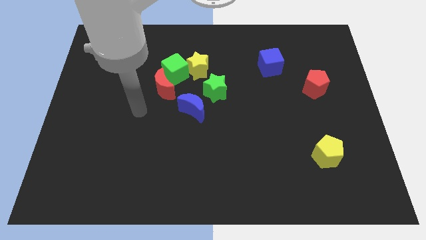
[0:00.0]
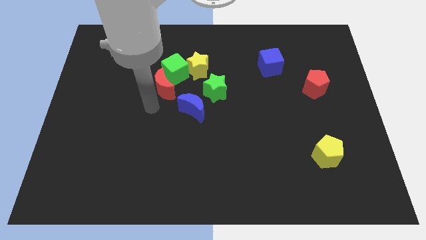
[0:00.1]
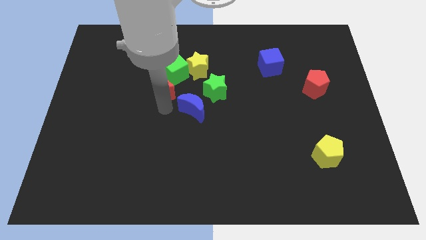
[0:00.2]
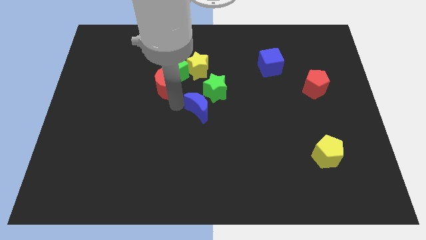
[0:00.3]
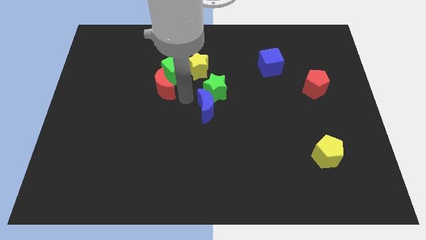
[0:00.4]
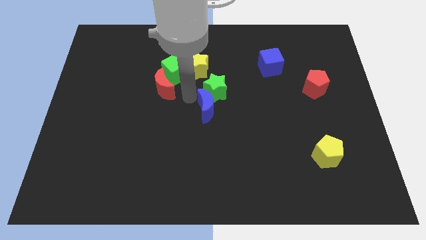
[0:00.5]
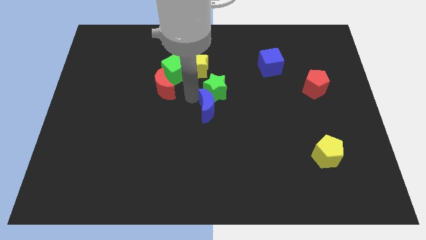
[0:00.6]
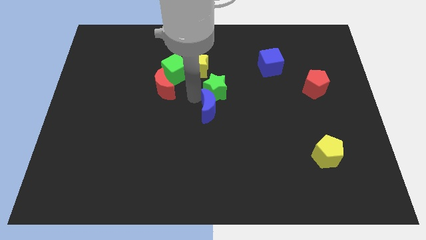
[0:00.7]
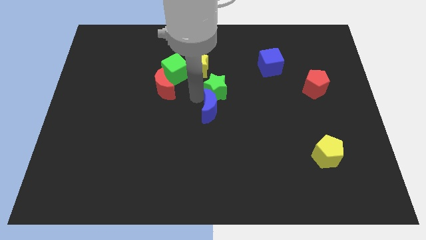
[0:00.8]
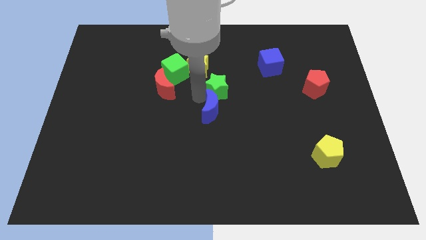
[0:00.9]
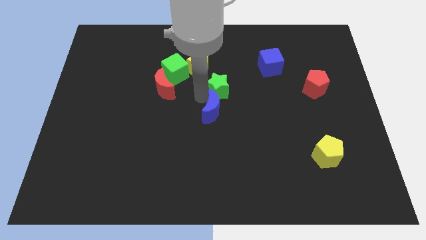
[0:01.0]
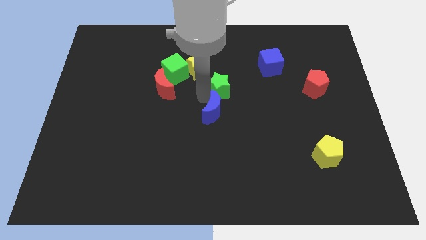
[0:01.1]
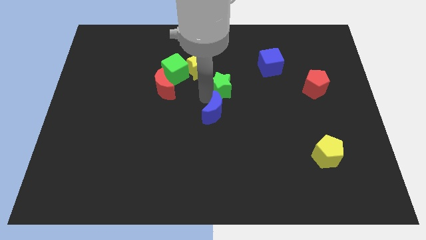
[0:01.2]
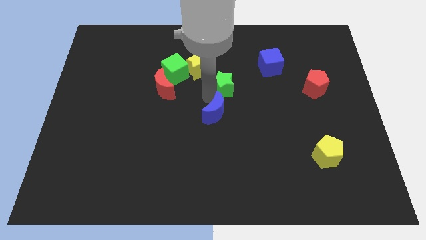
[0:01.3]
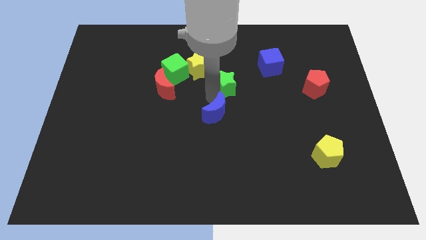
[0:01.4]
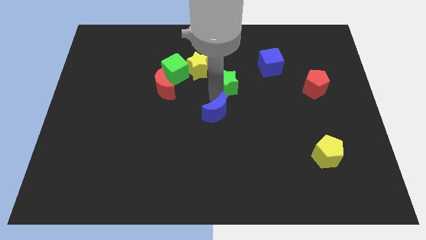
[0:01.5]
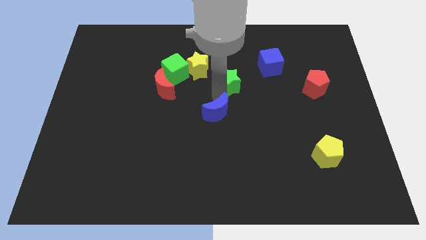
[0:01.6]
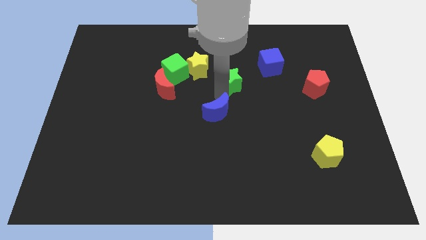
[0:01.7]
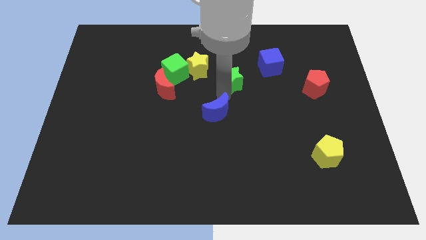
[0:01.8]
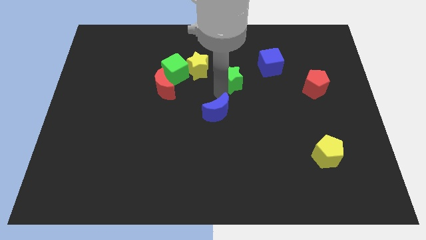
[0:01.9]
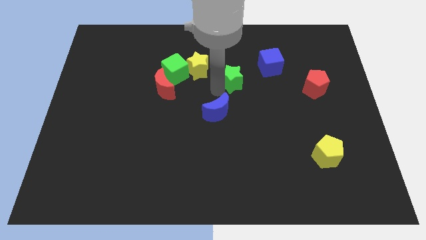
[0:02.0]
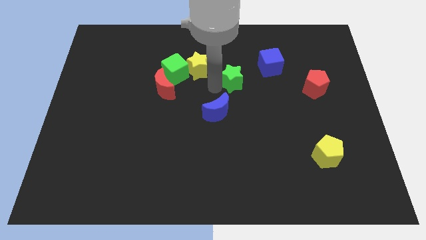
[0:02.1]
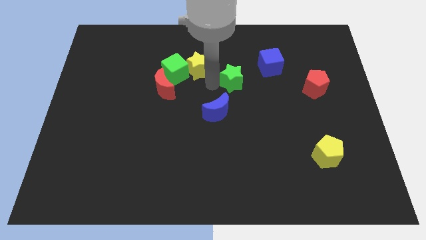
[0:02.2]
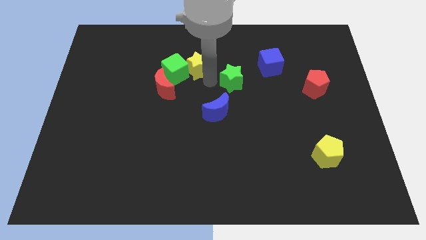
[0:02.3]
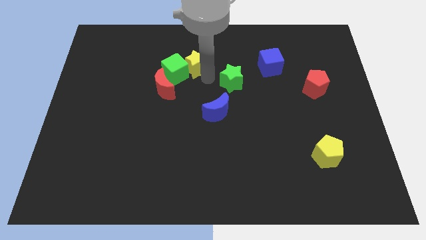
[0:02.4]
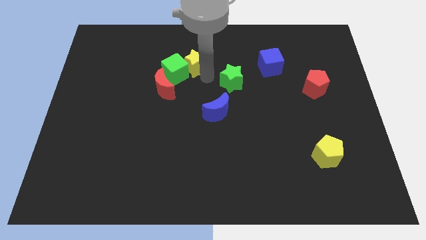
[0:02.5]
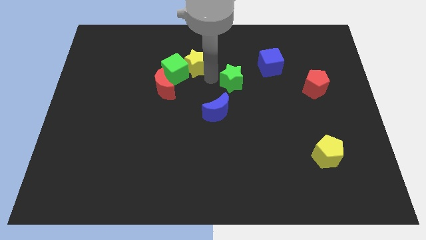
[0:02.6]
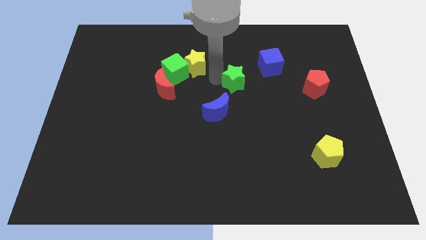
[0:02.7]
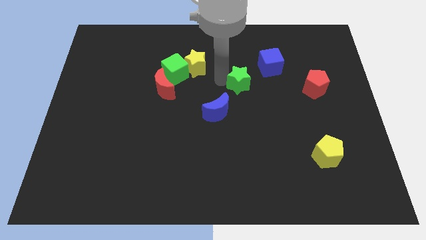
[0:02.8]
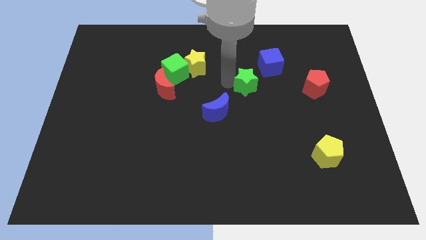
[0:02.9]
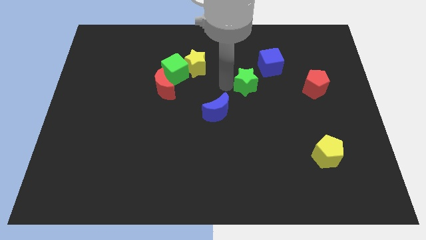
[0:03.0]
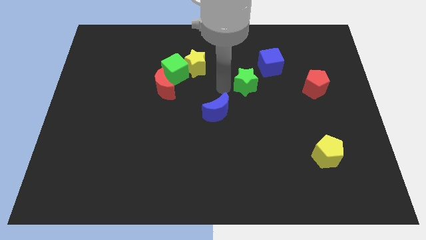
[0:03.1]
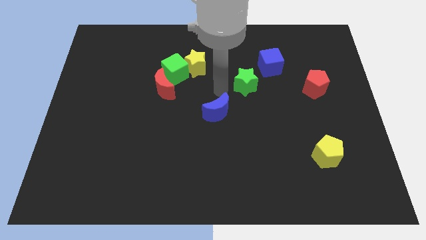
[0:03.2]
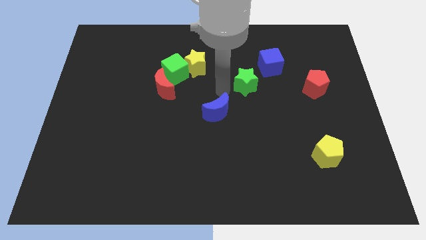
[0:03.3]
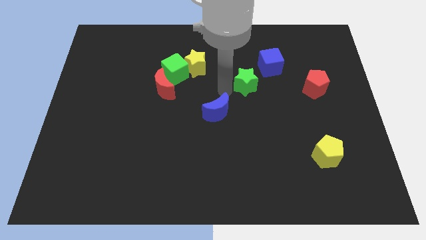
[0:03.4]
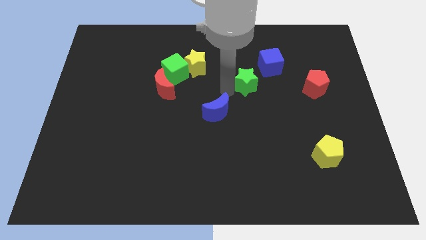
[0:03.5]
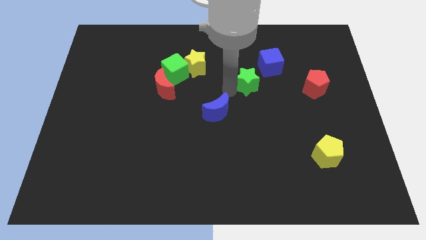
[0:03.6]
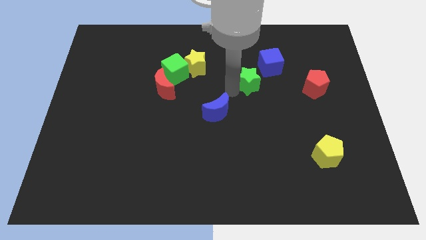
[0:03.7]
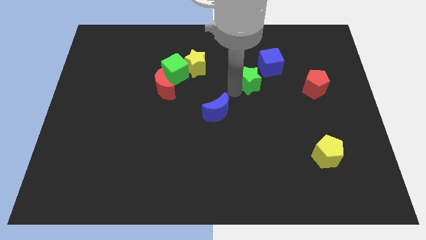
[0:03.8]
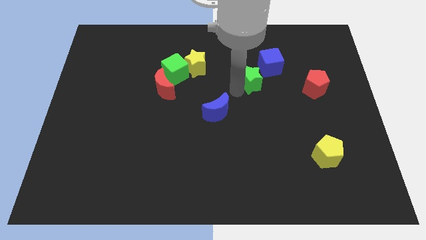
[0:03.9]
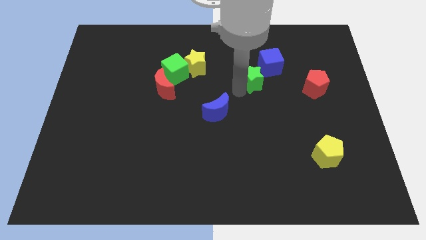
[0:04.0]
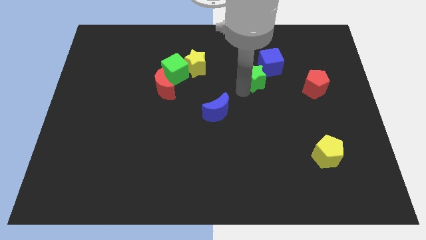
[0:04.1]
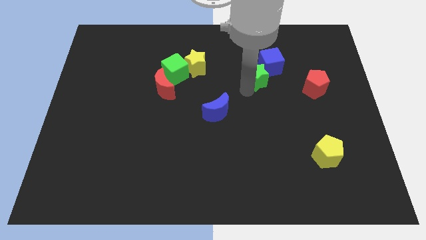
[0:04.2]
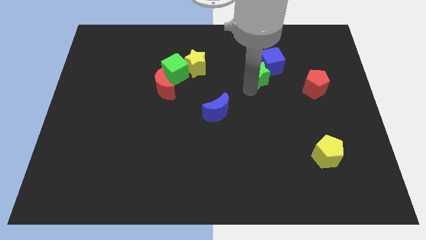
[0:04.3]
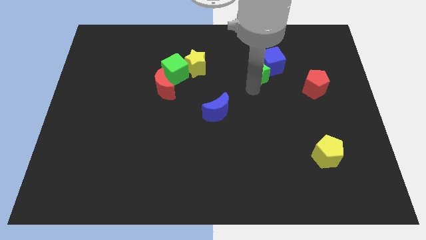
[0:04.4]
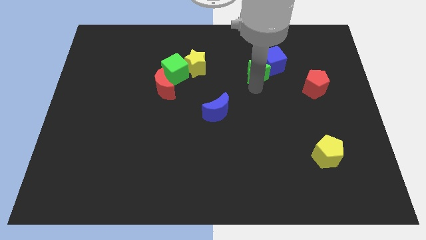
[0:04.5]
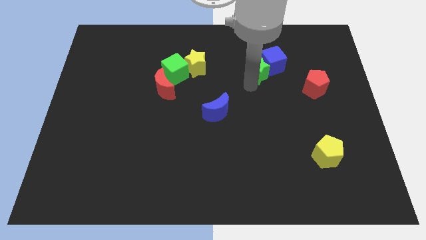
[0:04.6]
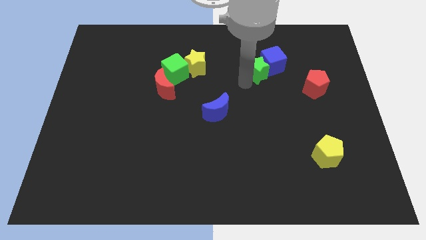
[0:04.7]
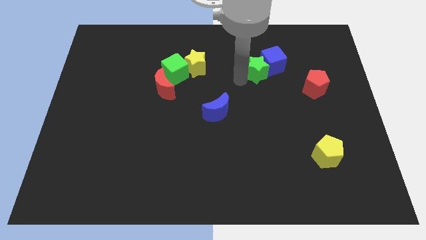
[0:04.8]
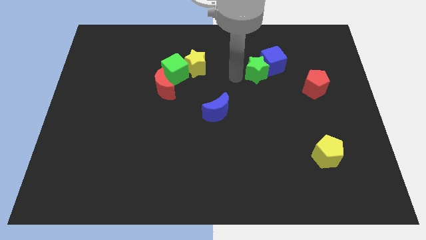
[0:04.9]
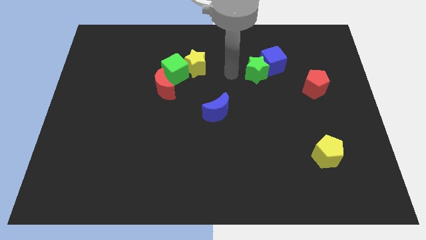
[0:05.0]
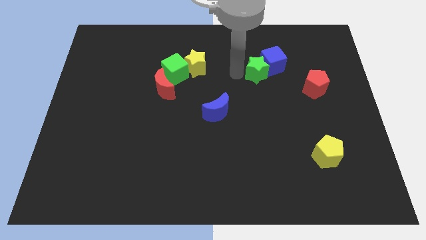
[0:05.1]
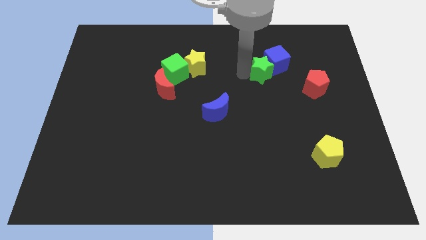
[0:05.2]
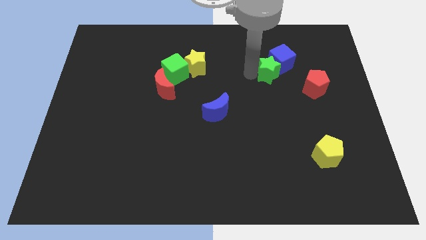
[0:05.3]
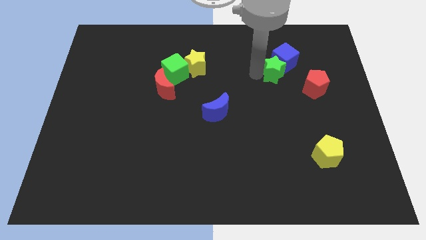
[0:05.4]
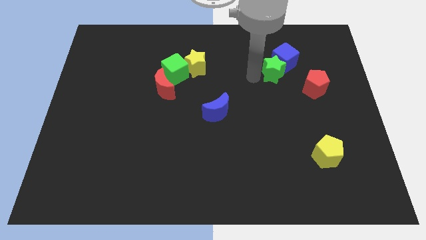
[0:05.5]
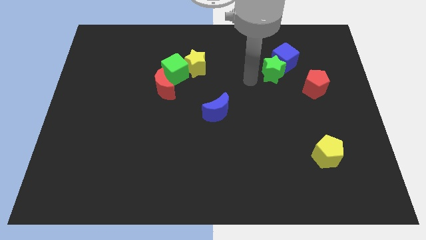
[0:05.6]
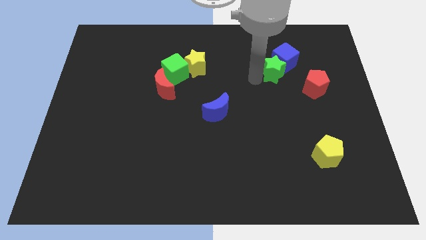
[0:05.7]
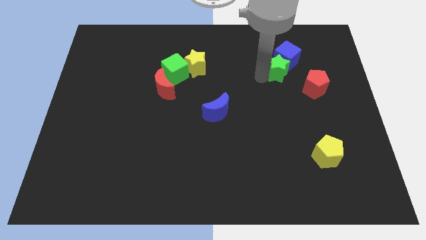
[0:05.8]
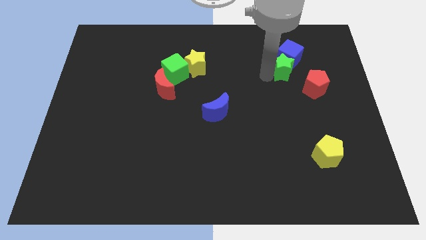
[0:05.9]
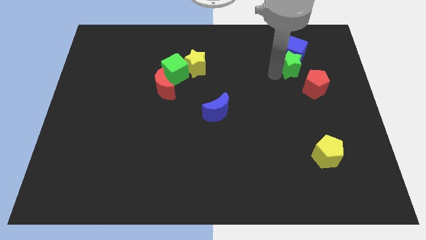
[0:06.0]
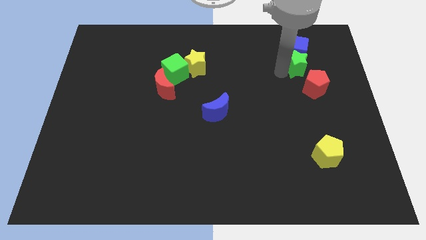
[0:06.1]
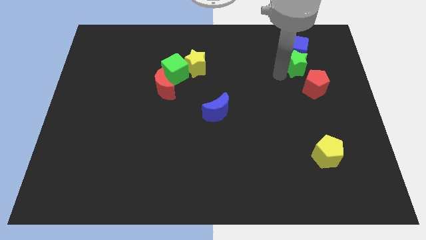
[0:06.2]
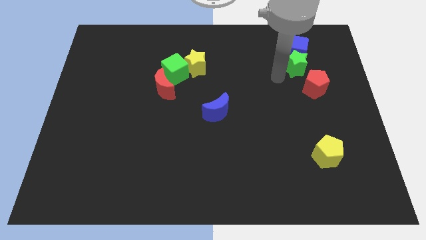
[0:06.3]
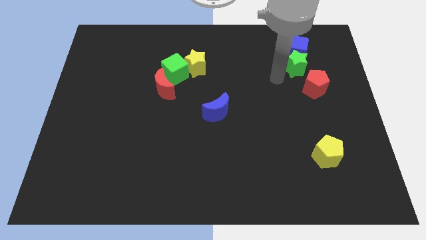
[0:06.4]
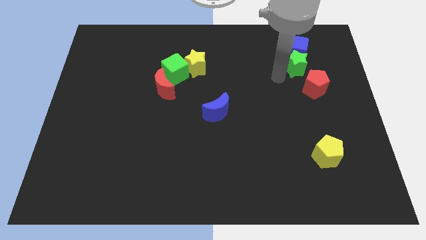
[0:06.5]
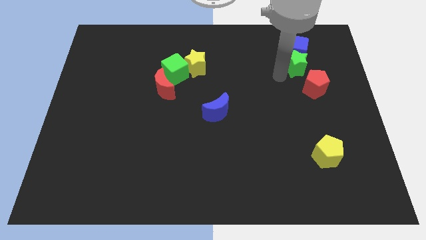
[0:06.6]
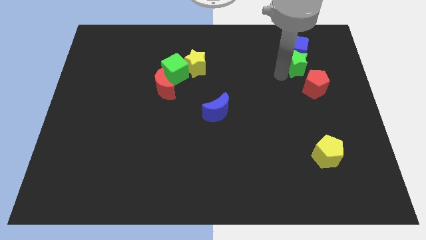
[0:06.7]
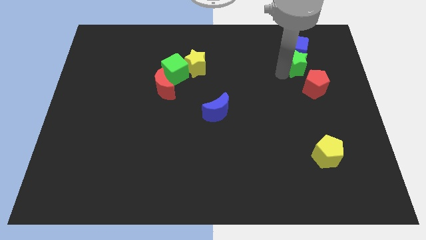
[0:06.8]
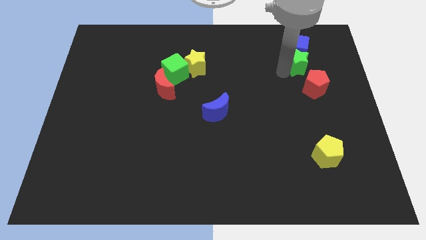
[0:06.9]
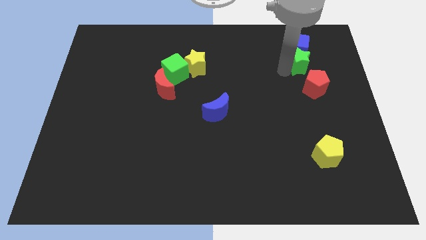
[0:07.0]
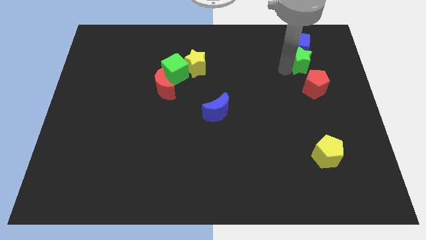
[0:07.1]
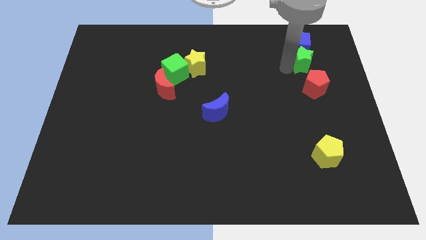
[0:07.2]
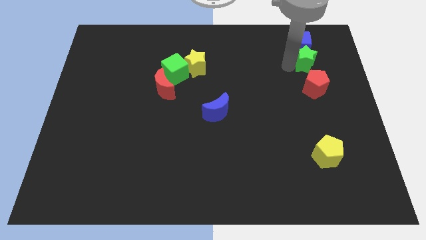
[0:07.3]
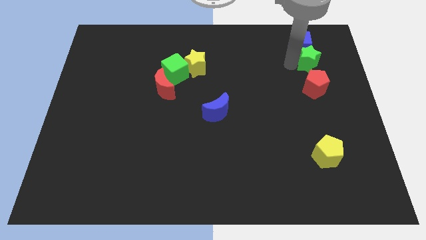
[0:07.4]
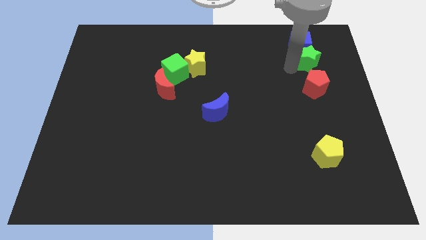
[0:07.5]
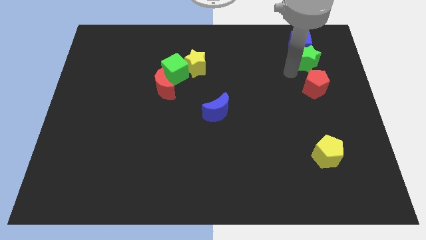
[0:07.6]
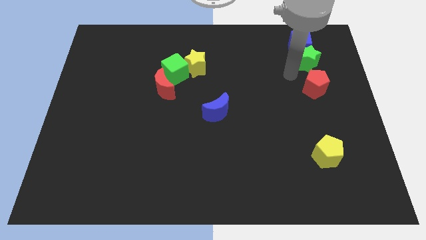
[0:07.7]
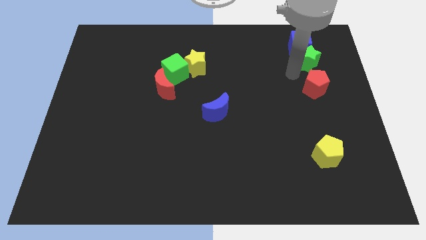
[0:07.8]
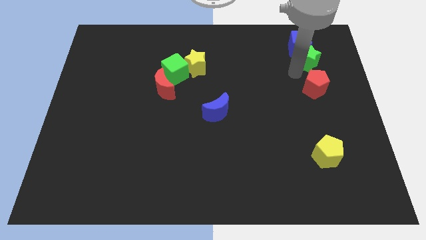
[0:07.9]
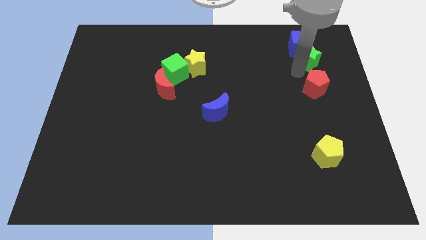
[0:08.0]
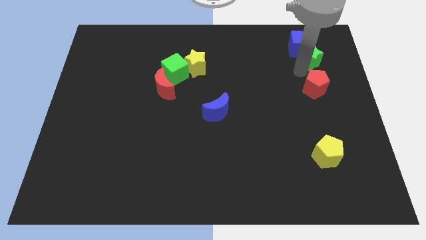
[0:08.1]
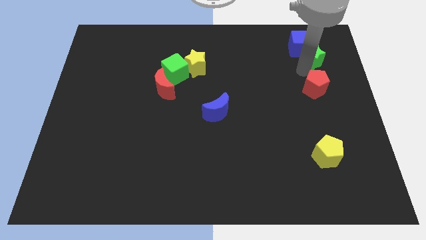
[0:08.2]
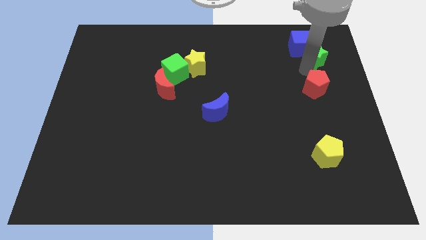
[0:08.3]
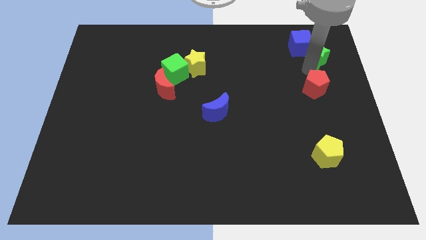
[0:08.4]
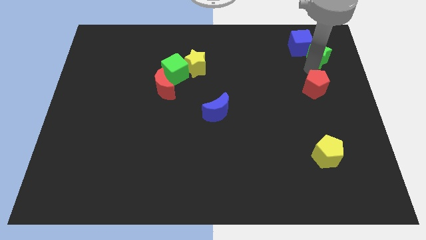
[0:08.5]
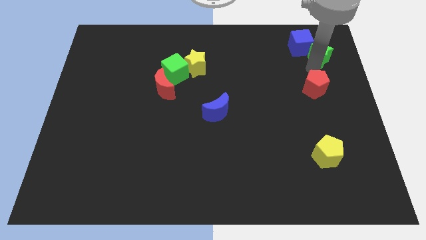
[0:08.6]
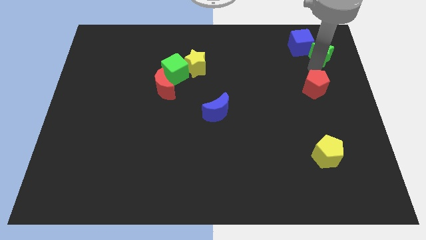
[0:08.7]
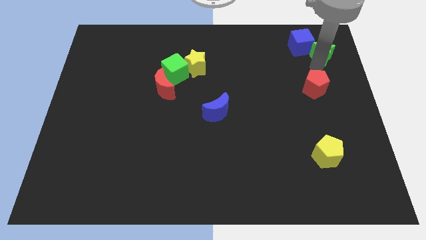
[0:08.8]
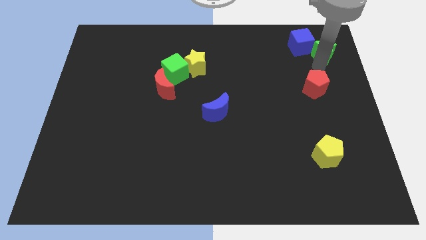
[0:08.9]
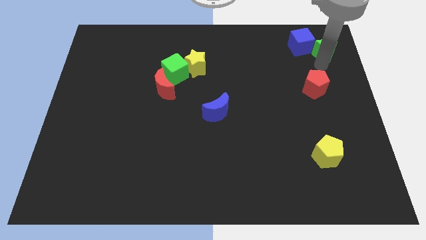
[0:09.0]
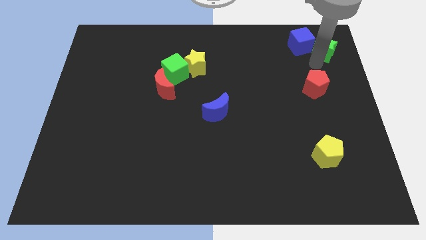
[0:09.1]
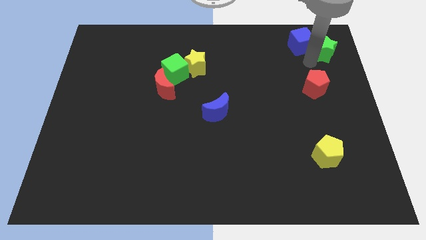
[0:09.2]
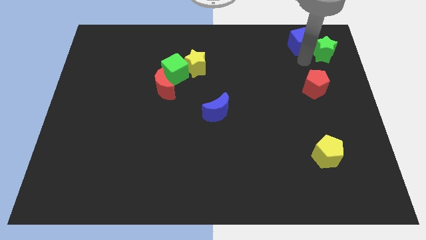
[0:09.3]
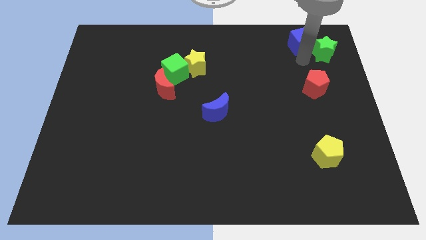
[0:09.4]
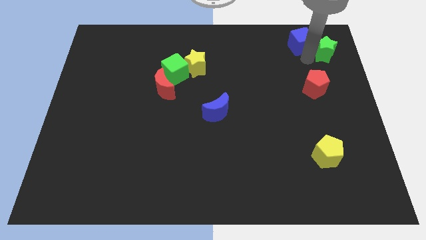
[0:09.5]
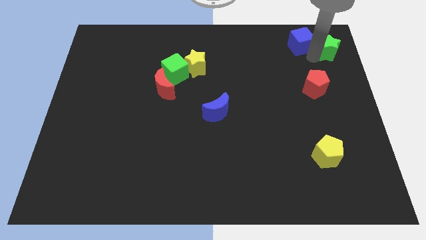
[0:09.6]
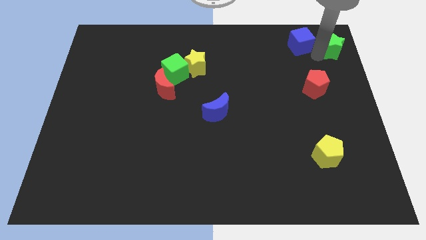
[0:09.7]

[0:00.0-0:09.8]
put the green star to the top right corner
